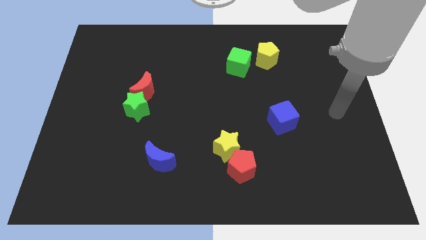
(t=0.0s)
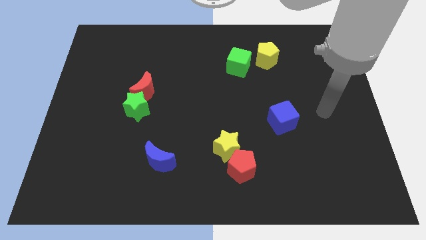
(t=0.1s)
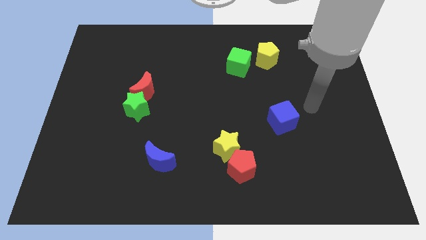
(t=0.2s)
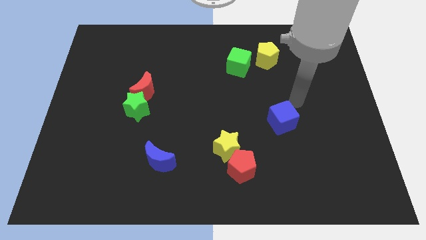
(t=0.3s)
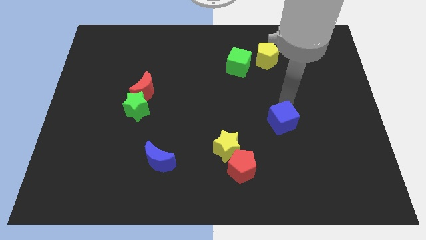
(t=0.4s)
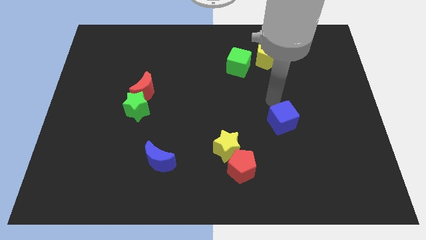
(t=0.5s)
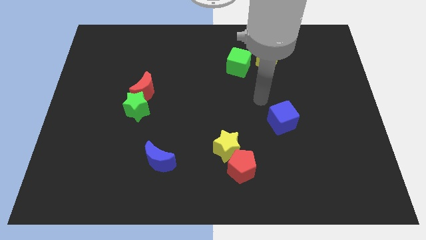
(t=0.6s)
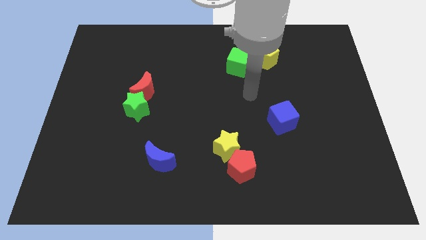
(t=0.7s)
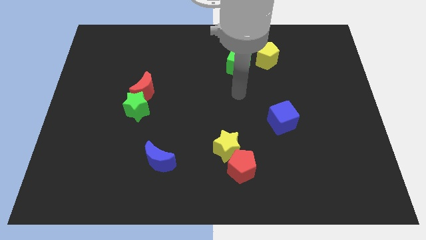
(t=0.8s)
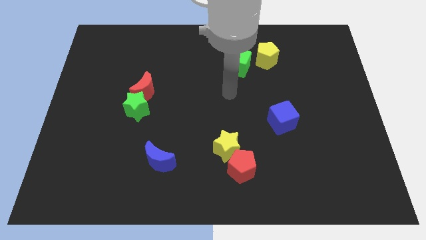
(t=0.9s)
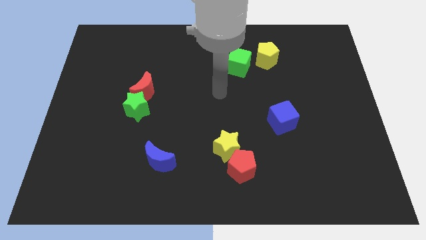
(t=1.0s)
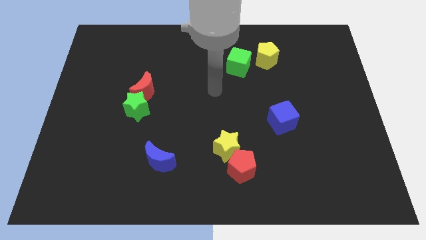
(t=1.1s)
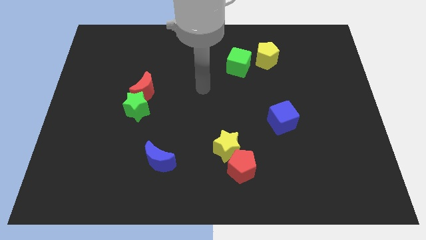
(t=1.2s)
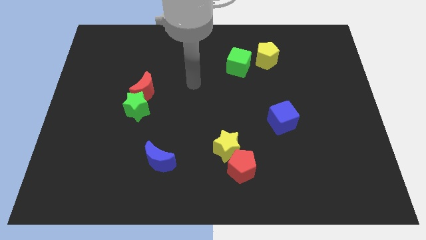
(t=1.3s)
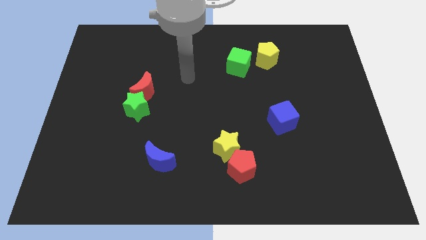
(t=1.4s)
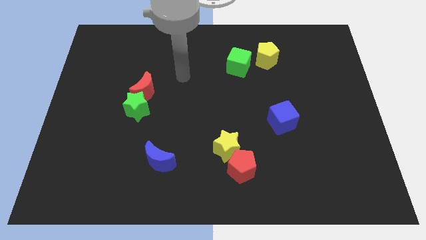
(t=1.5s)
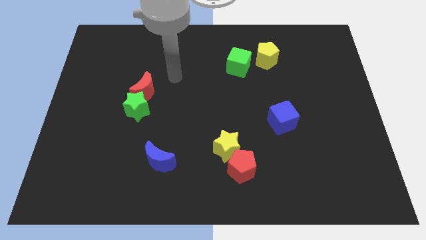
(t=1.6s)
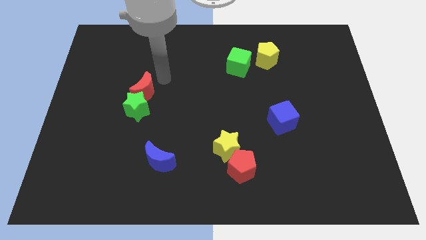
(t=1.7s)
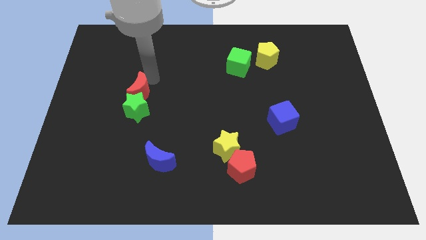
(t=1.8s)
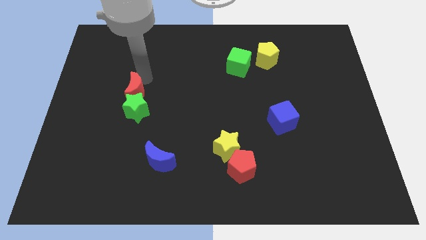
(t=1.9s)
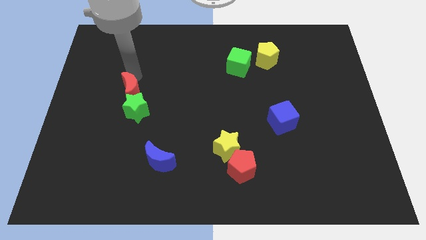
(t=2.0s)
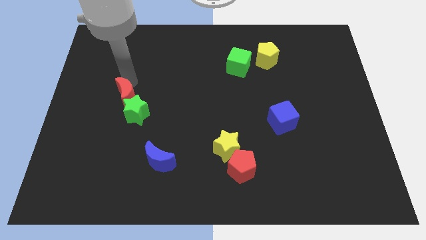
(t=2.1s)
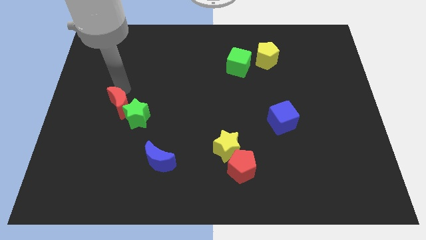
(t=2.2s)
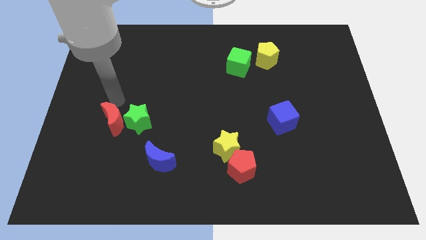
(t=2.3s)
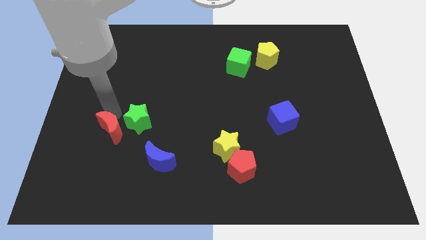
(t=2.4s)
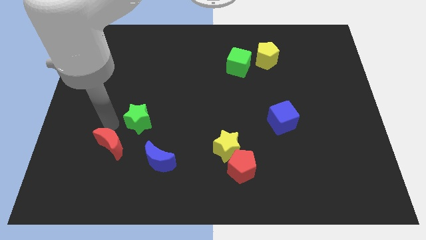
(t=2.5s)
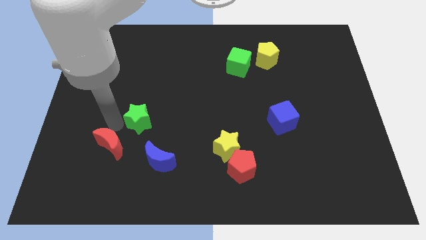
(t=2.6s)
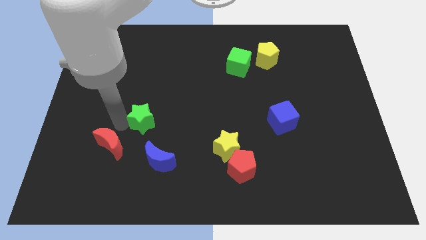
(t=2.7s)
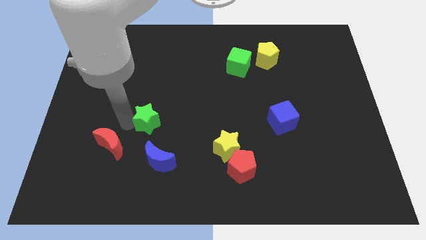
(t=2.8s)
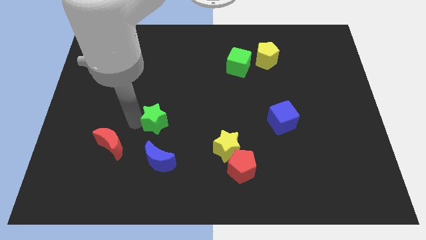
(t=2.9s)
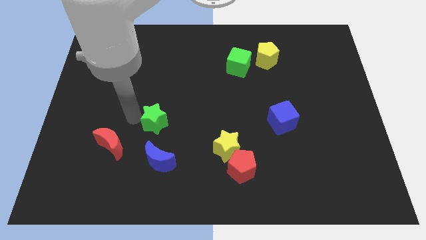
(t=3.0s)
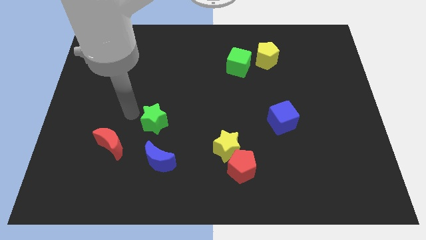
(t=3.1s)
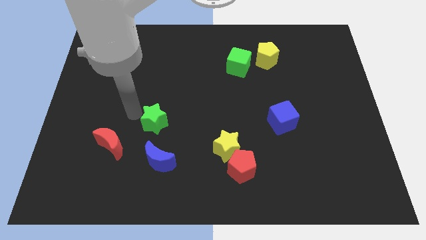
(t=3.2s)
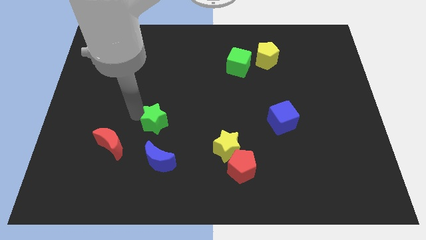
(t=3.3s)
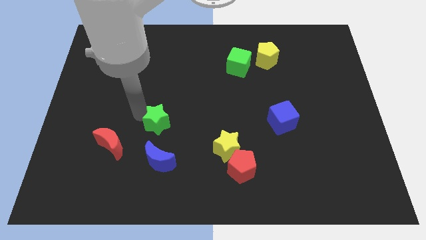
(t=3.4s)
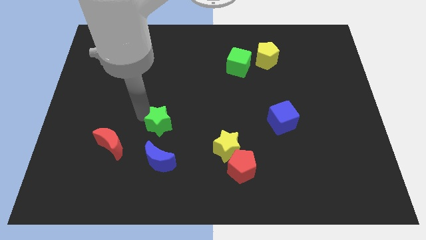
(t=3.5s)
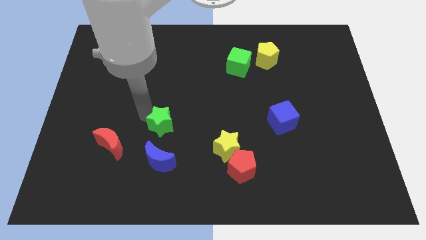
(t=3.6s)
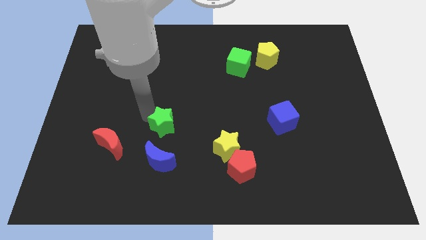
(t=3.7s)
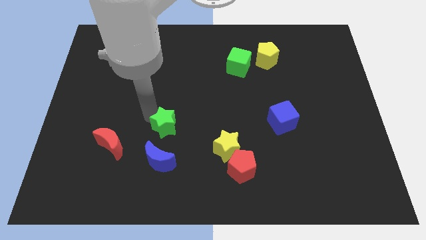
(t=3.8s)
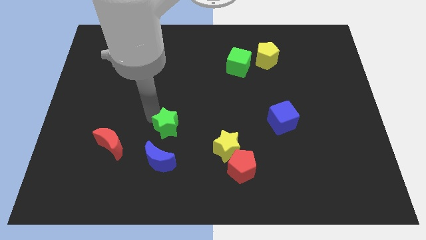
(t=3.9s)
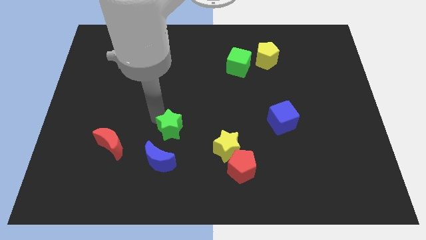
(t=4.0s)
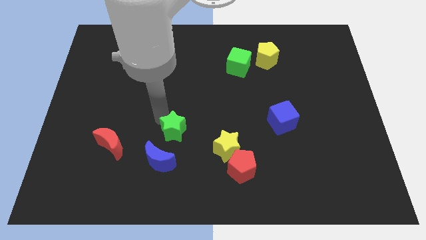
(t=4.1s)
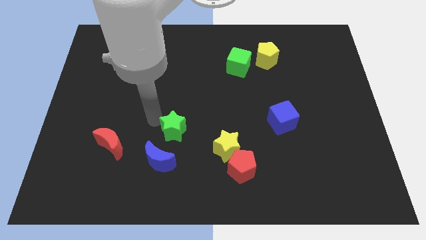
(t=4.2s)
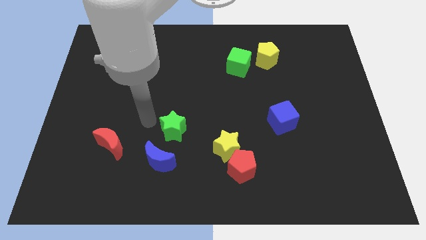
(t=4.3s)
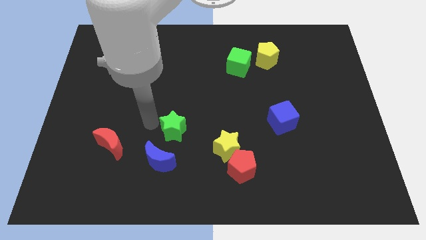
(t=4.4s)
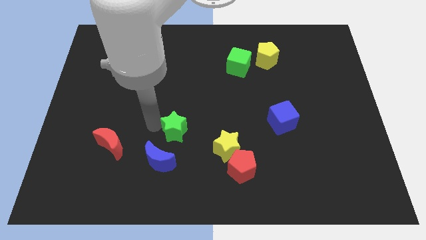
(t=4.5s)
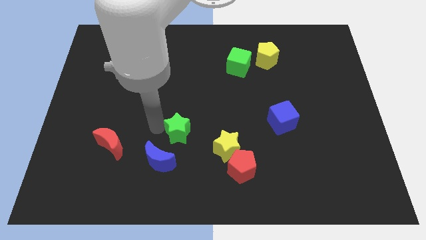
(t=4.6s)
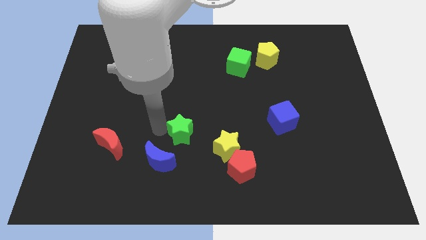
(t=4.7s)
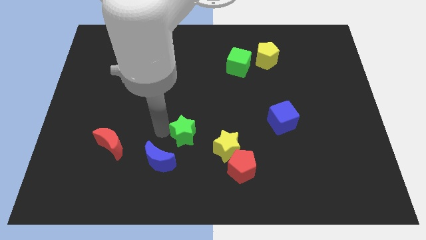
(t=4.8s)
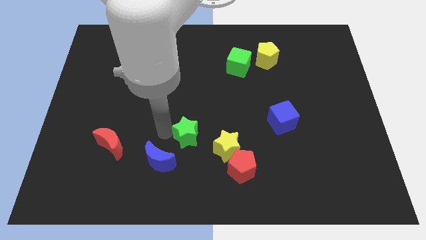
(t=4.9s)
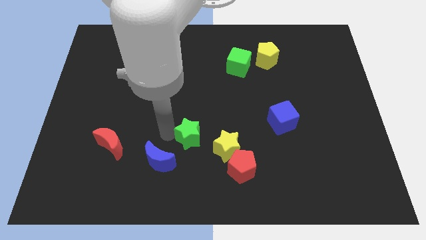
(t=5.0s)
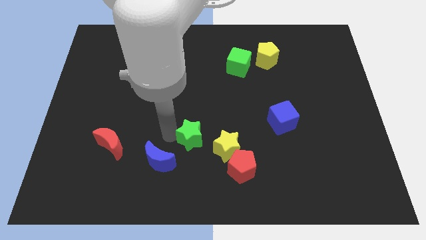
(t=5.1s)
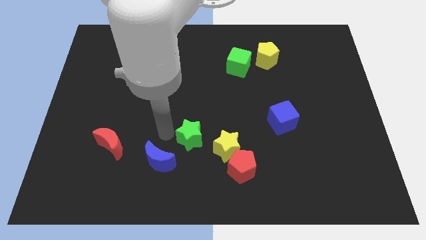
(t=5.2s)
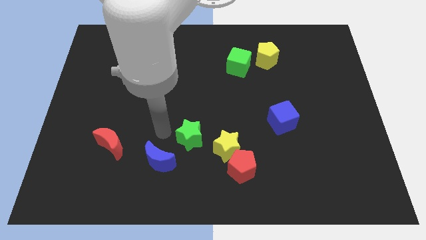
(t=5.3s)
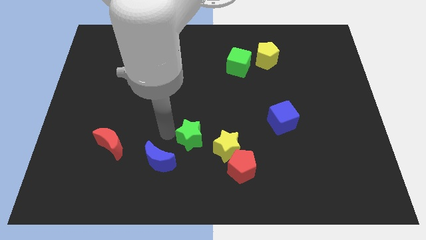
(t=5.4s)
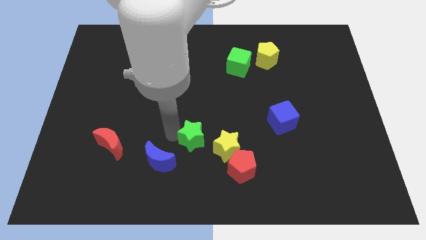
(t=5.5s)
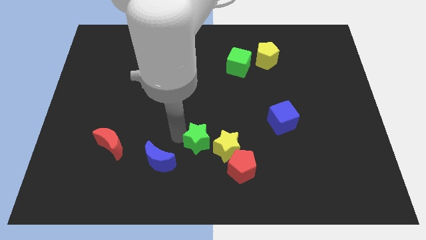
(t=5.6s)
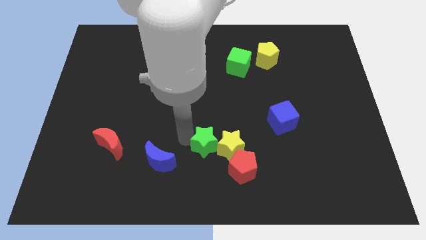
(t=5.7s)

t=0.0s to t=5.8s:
move the green star towards the yellow star

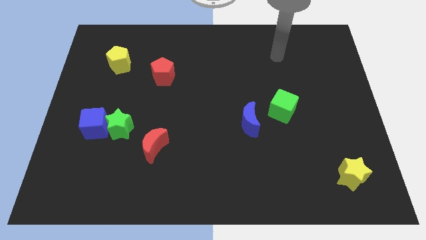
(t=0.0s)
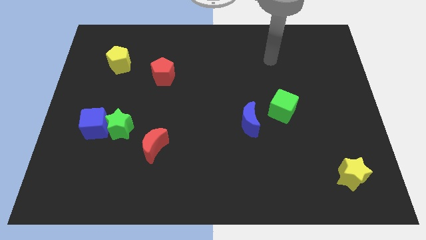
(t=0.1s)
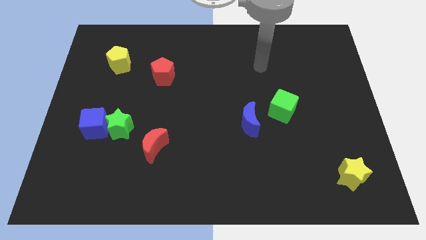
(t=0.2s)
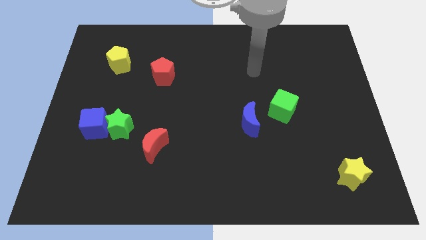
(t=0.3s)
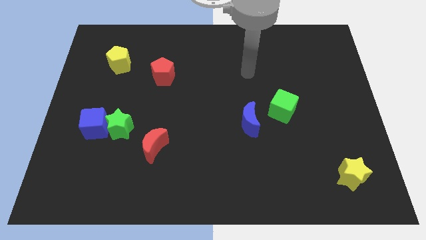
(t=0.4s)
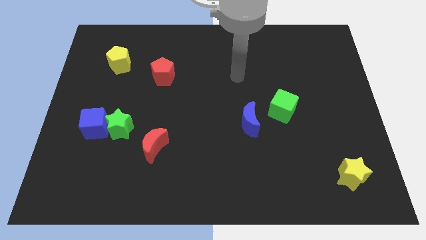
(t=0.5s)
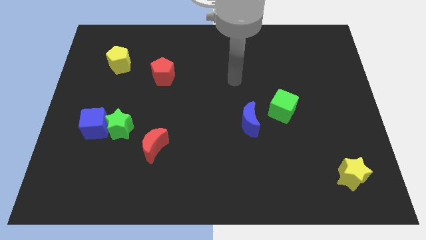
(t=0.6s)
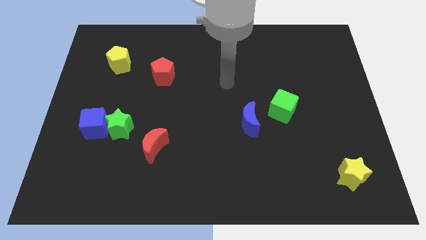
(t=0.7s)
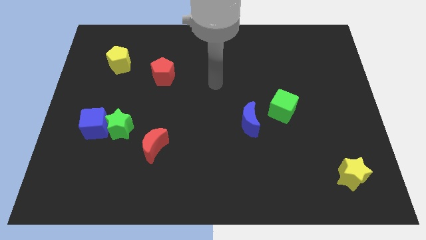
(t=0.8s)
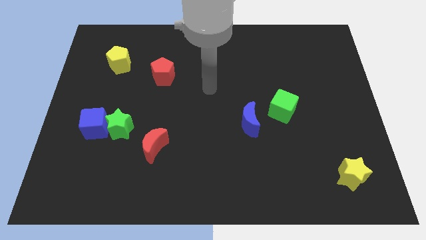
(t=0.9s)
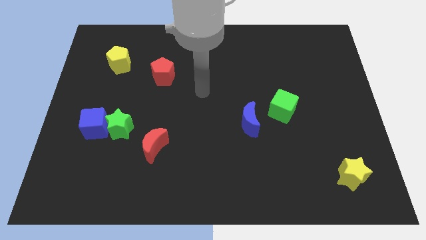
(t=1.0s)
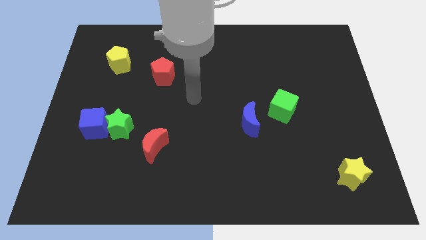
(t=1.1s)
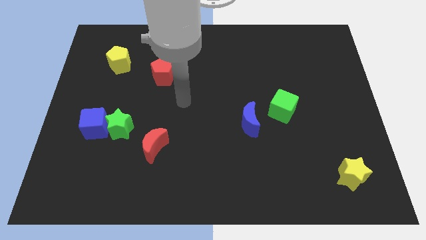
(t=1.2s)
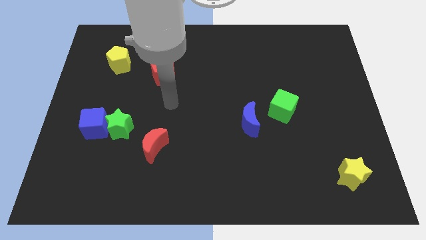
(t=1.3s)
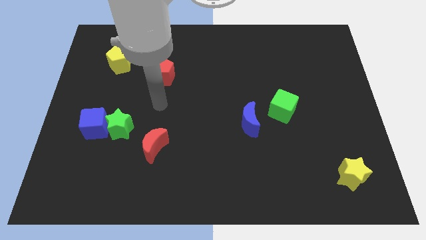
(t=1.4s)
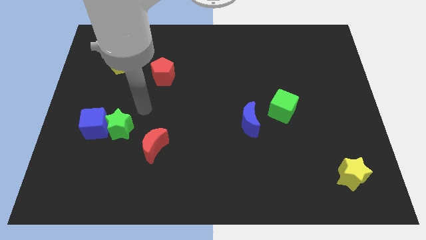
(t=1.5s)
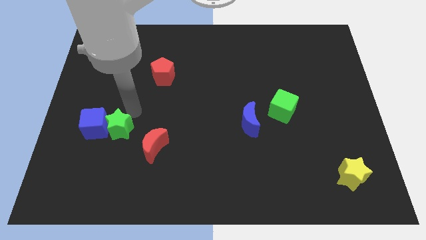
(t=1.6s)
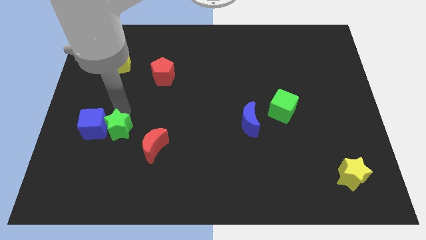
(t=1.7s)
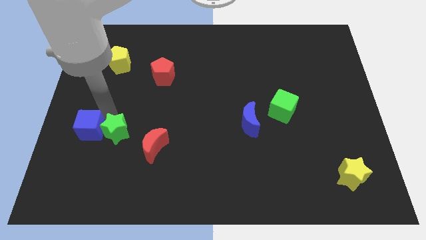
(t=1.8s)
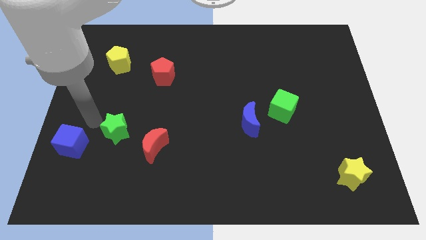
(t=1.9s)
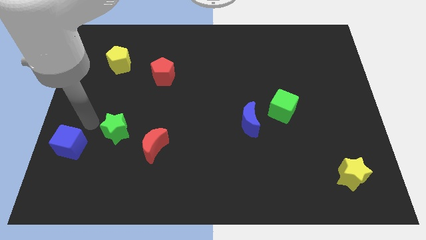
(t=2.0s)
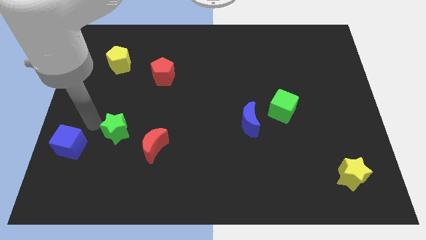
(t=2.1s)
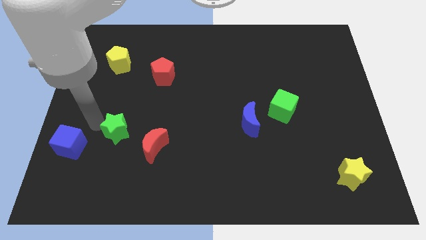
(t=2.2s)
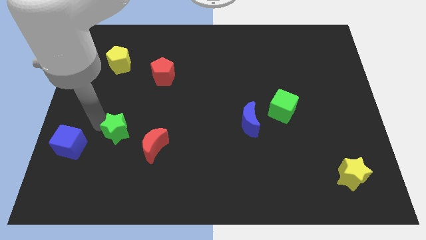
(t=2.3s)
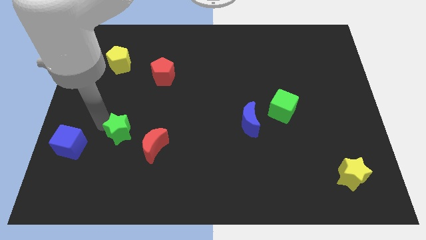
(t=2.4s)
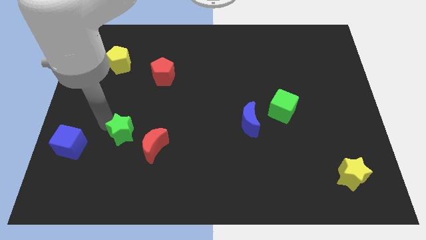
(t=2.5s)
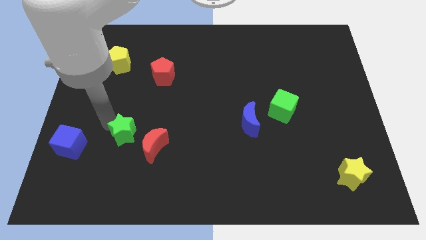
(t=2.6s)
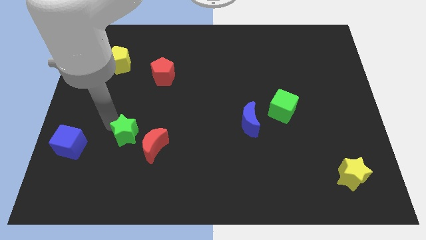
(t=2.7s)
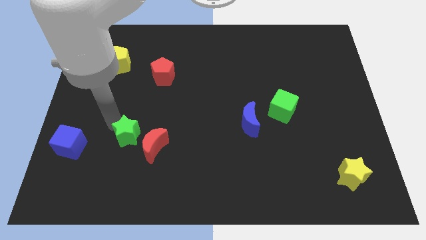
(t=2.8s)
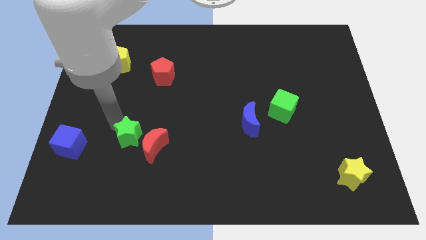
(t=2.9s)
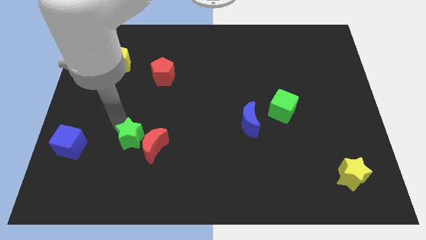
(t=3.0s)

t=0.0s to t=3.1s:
put the green star to the red moon
